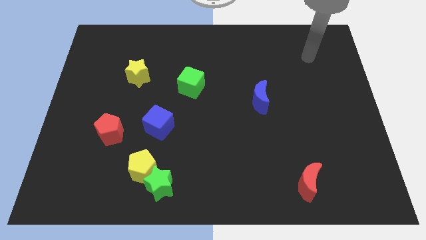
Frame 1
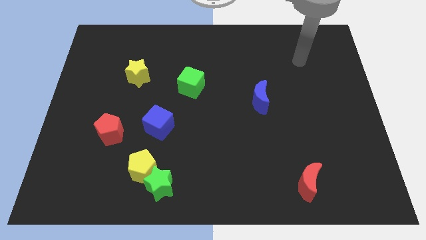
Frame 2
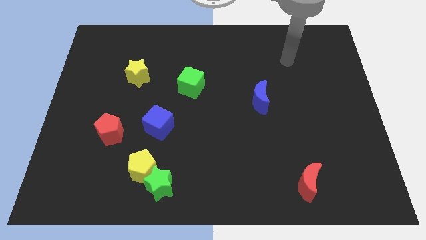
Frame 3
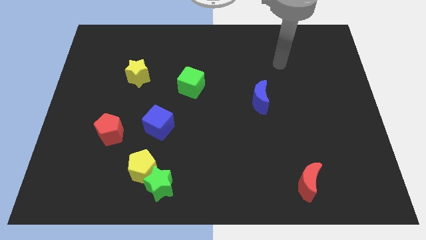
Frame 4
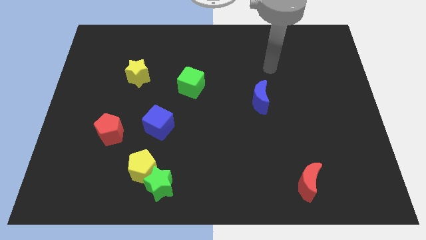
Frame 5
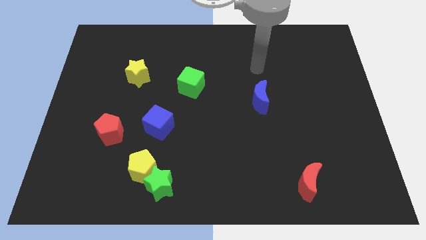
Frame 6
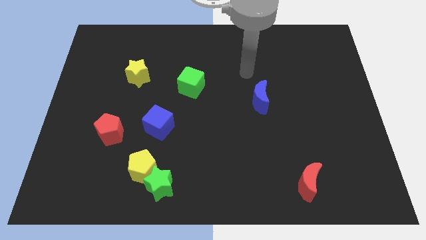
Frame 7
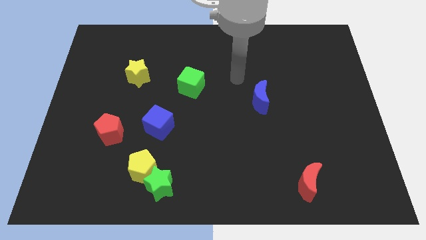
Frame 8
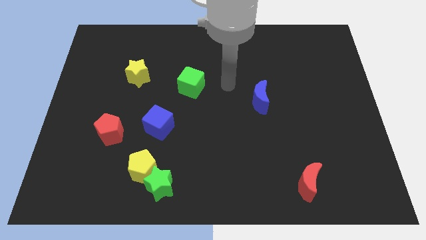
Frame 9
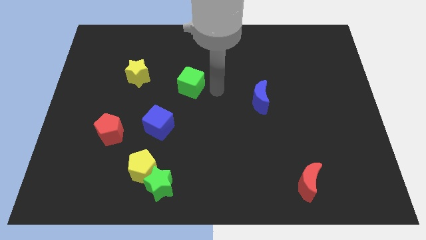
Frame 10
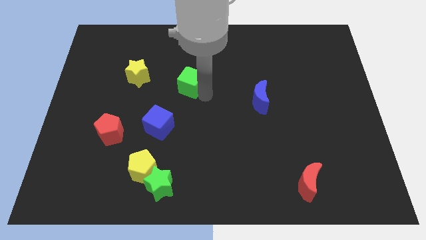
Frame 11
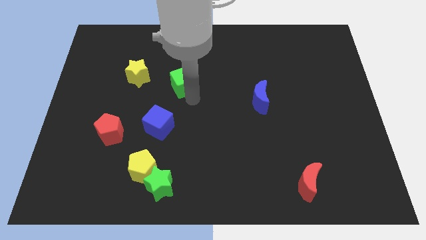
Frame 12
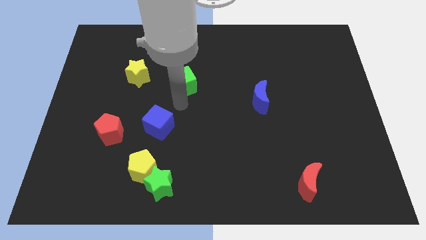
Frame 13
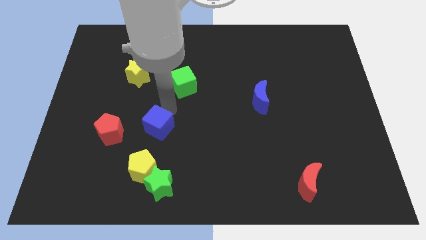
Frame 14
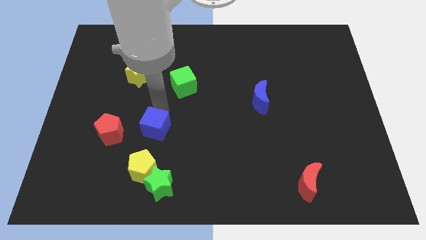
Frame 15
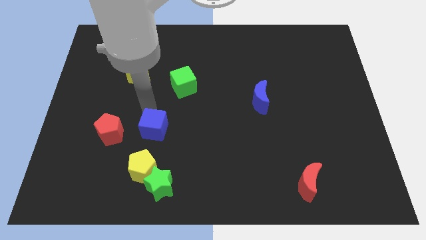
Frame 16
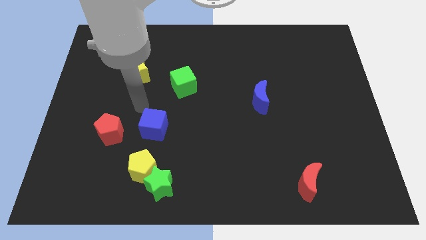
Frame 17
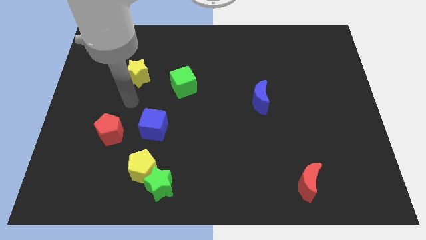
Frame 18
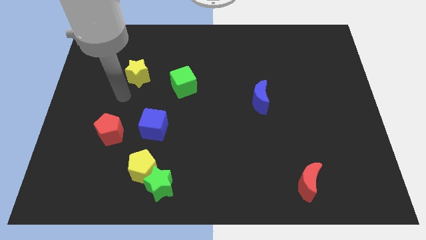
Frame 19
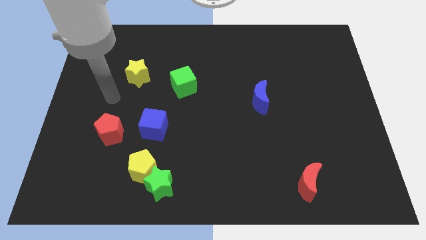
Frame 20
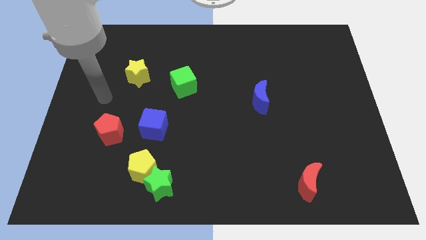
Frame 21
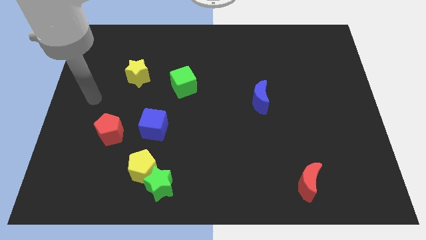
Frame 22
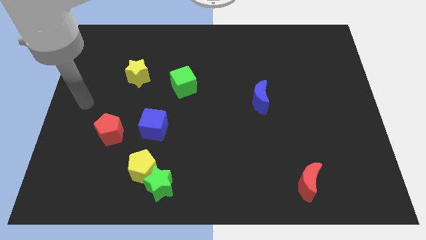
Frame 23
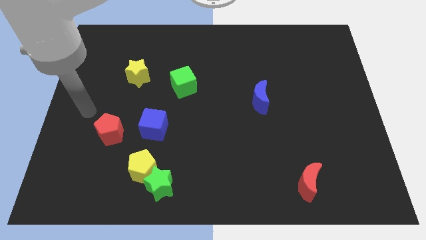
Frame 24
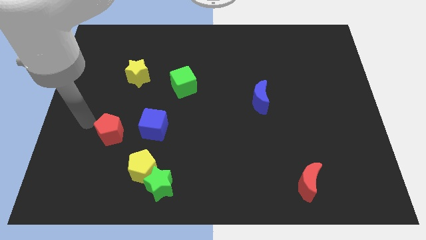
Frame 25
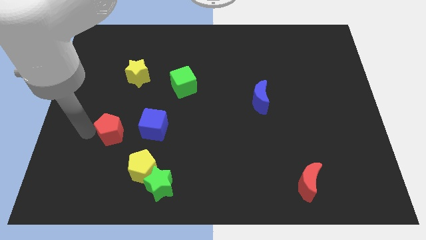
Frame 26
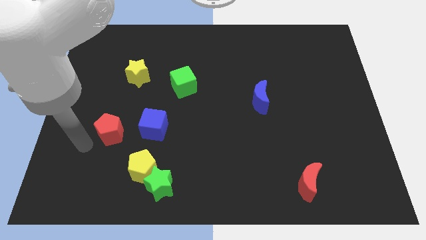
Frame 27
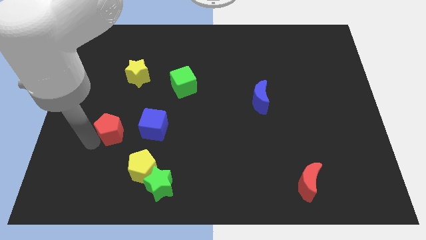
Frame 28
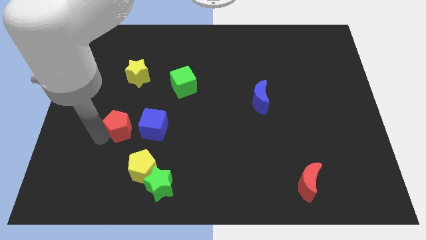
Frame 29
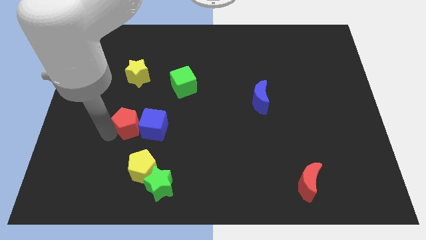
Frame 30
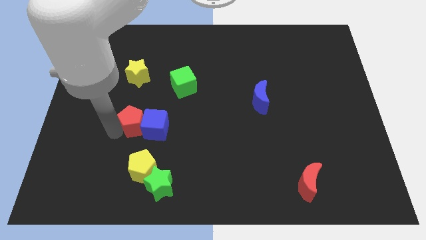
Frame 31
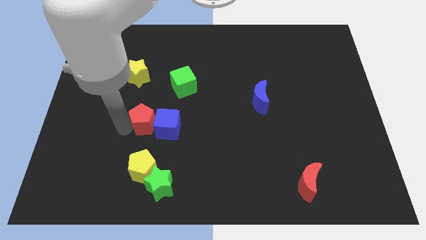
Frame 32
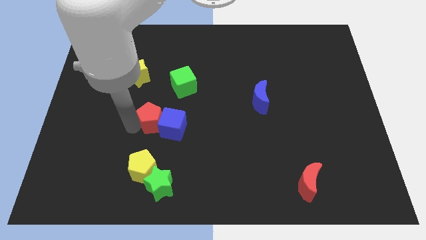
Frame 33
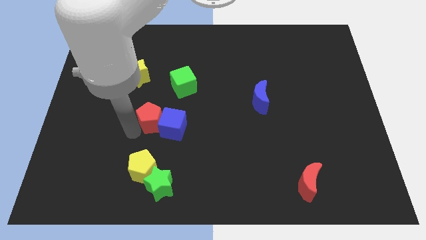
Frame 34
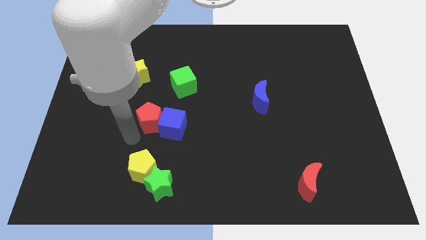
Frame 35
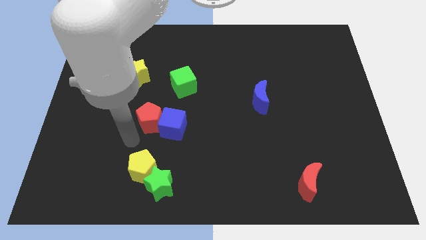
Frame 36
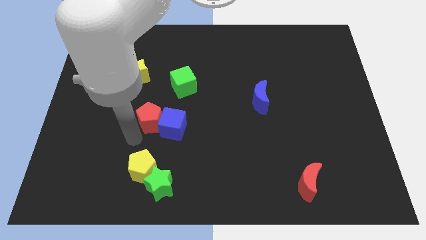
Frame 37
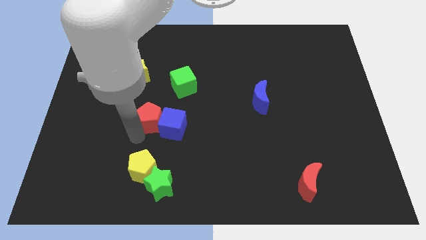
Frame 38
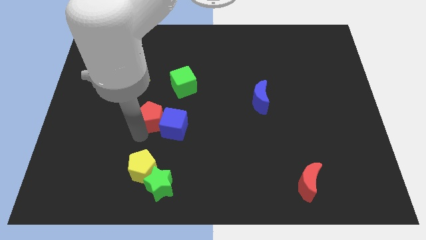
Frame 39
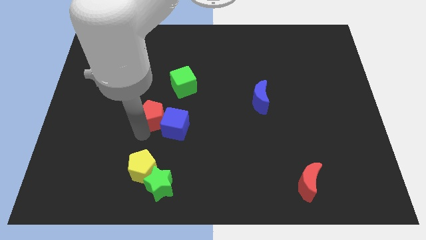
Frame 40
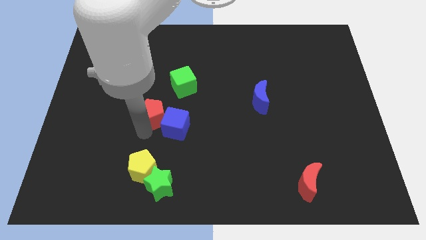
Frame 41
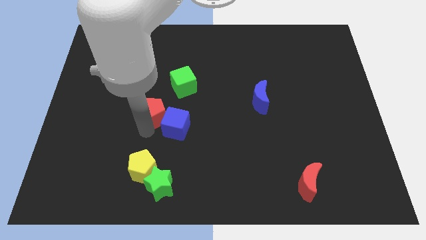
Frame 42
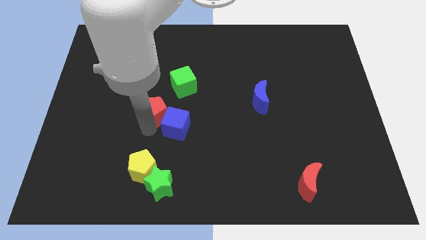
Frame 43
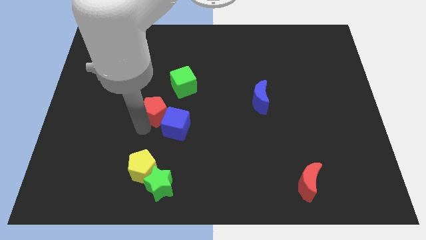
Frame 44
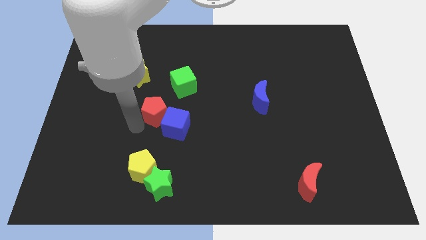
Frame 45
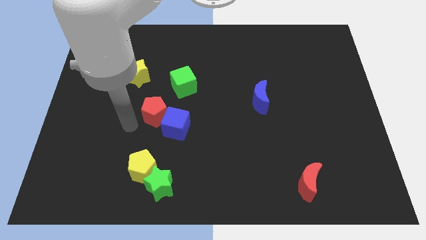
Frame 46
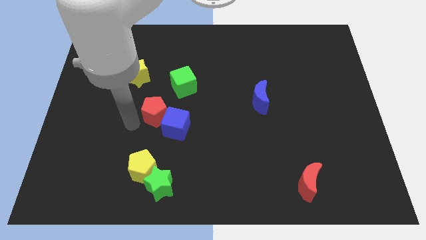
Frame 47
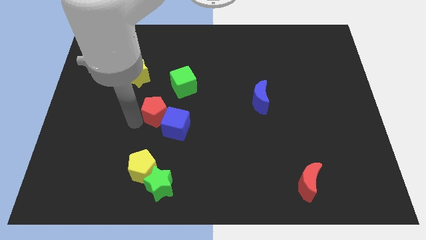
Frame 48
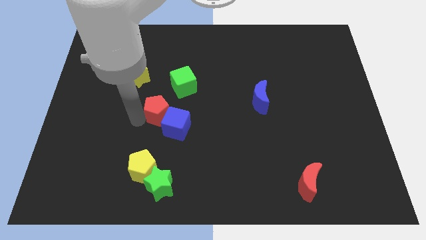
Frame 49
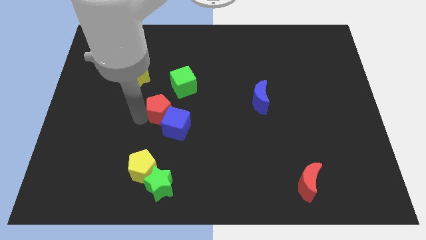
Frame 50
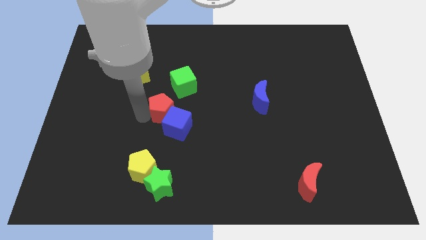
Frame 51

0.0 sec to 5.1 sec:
move the red pentagon to the middle

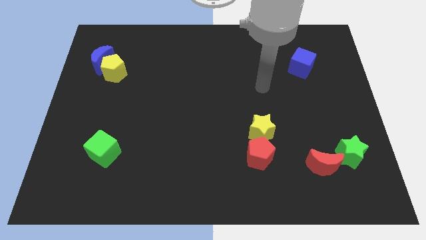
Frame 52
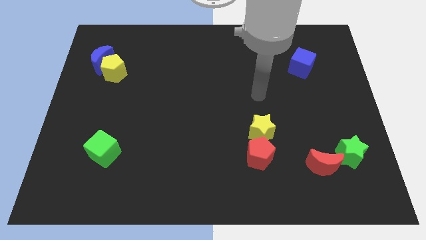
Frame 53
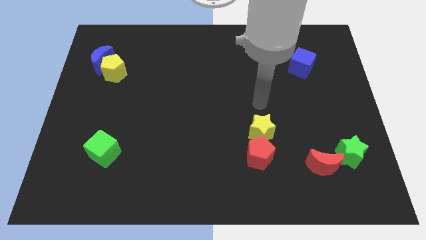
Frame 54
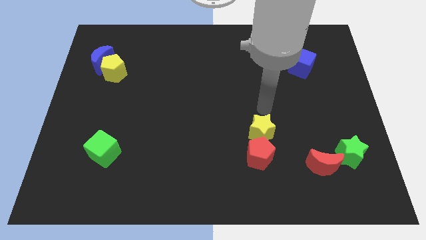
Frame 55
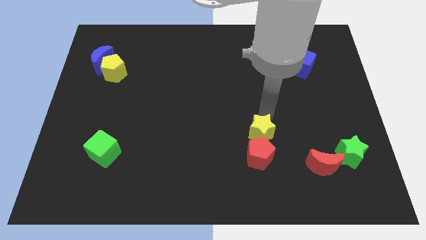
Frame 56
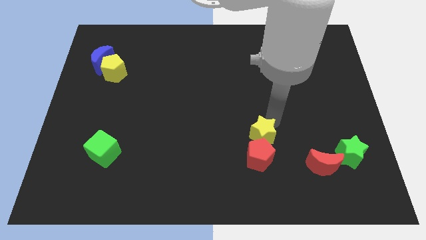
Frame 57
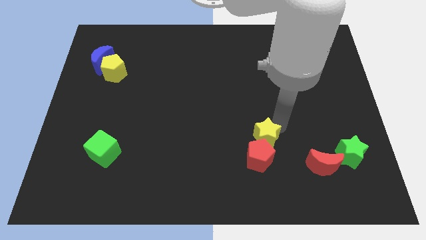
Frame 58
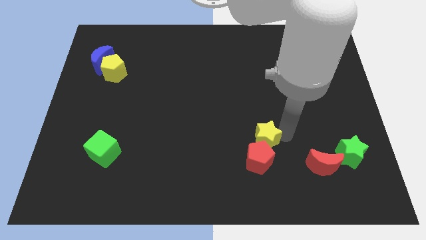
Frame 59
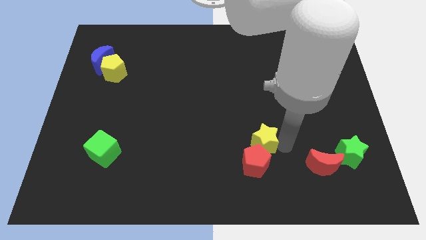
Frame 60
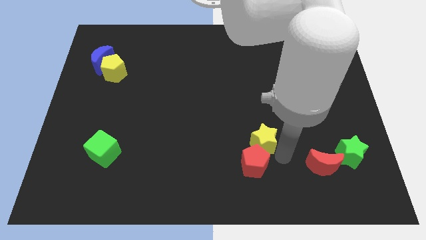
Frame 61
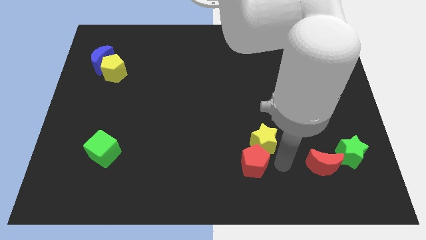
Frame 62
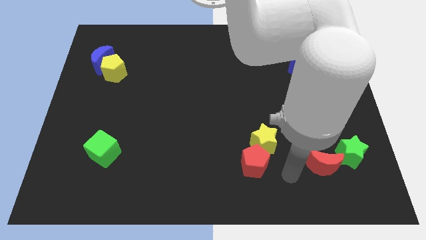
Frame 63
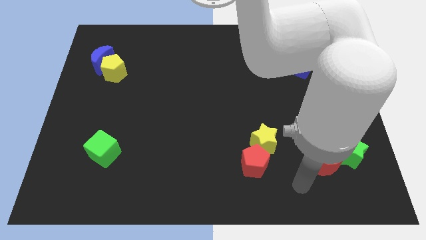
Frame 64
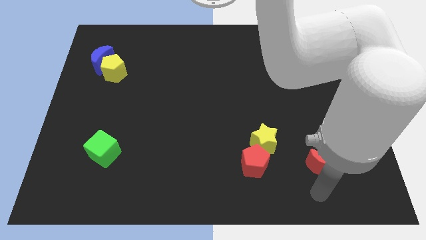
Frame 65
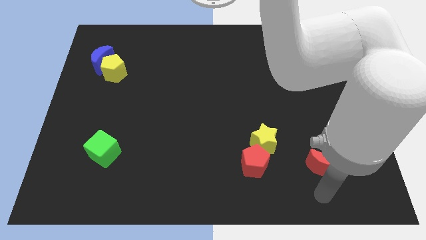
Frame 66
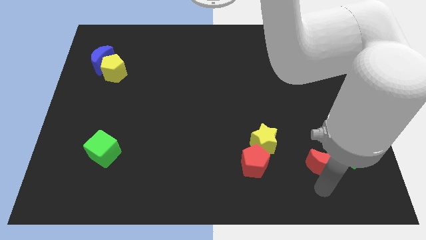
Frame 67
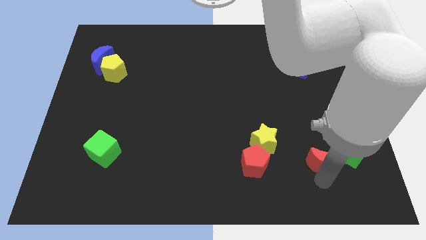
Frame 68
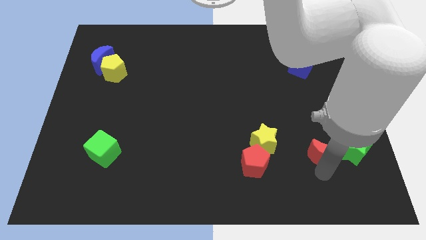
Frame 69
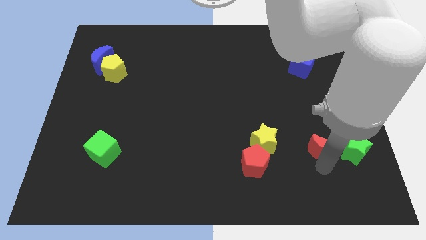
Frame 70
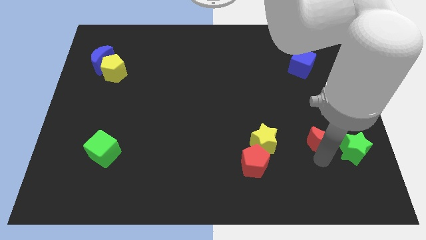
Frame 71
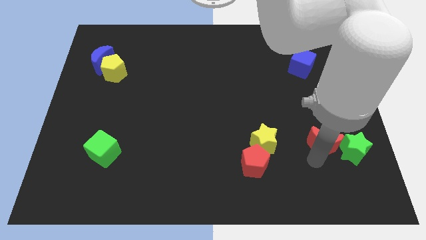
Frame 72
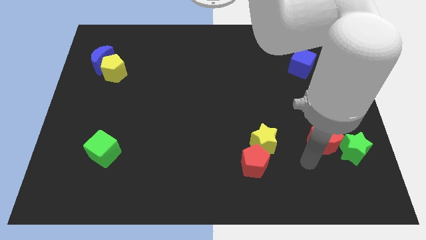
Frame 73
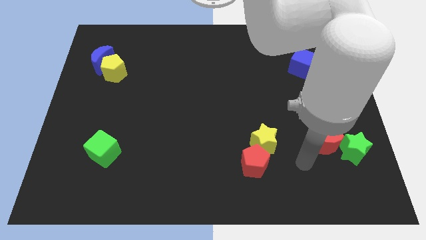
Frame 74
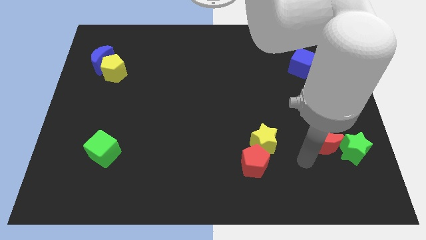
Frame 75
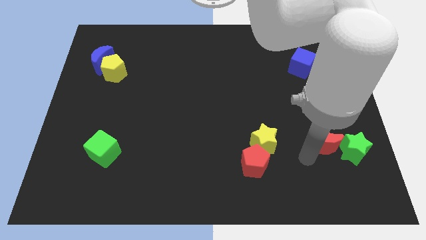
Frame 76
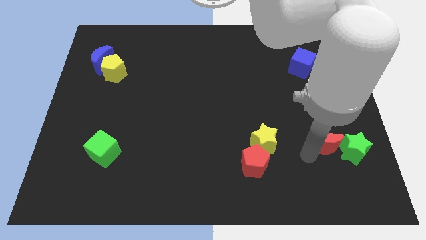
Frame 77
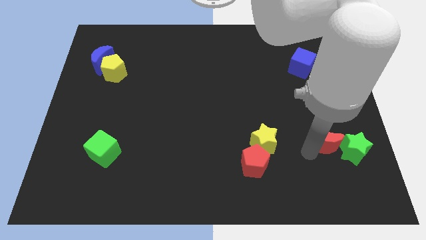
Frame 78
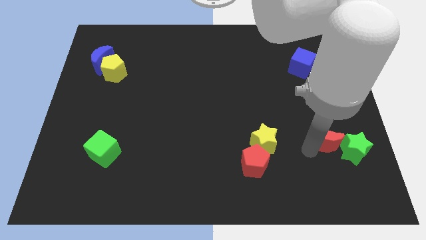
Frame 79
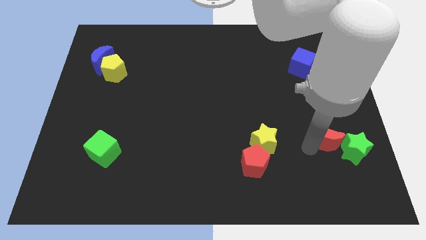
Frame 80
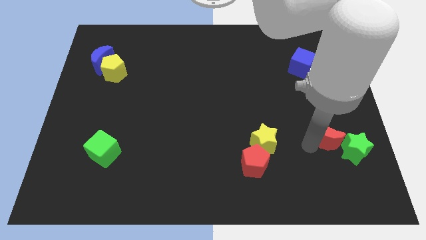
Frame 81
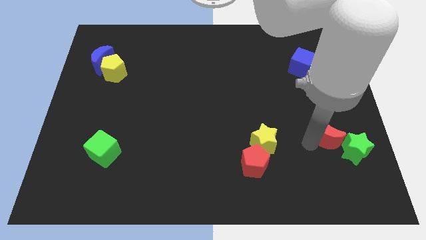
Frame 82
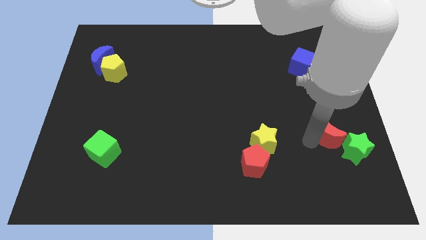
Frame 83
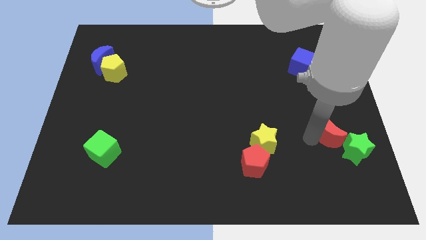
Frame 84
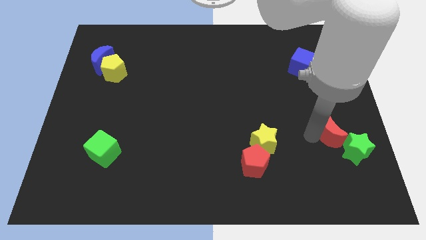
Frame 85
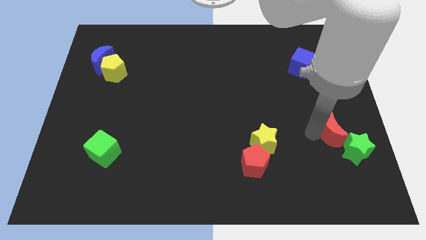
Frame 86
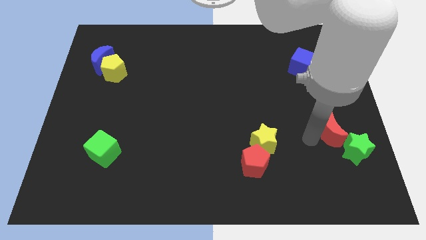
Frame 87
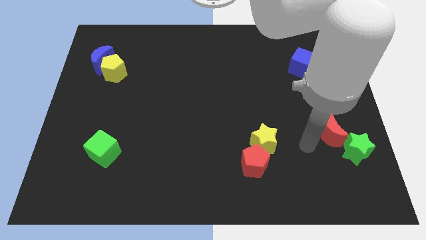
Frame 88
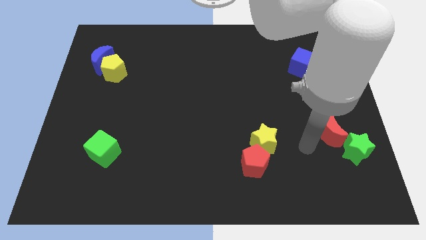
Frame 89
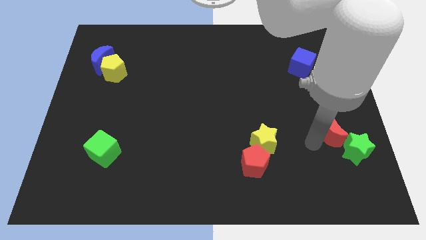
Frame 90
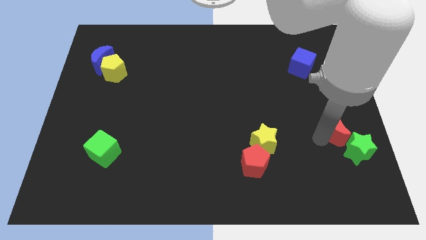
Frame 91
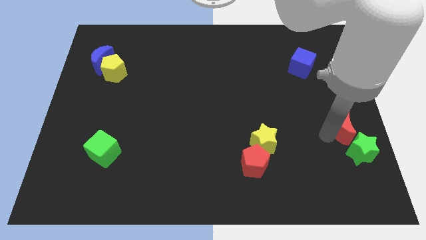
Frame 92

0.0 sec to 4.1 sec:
push the red moon to the right side
